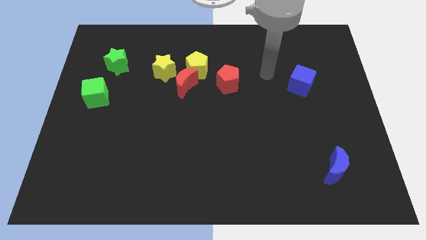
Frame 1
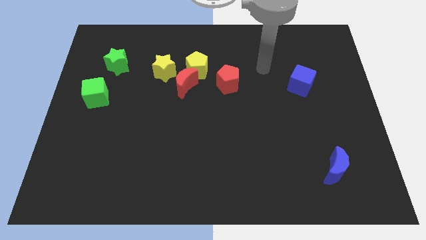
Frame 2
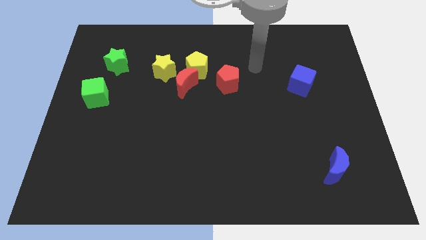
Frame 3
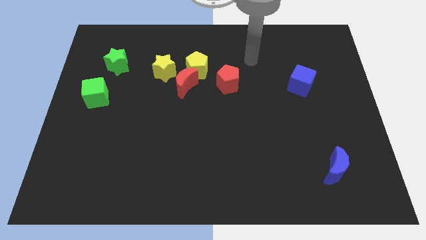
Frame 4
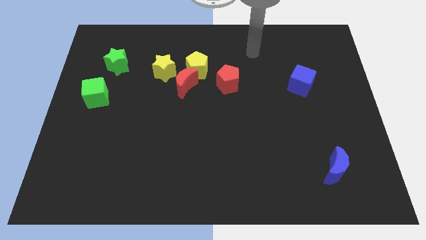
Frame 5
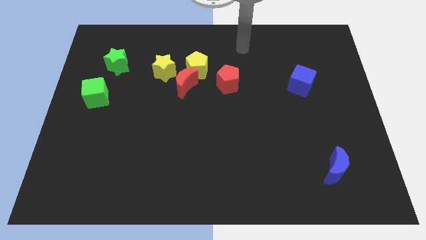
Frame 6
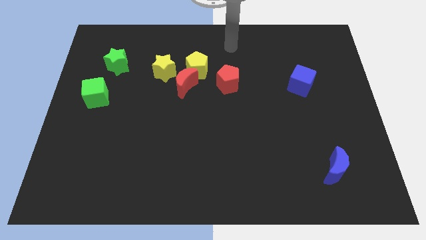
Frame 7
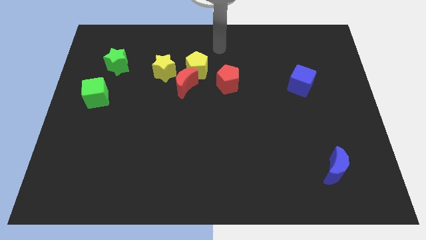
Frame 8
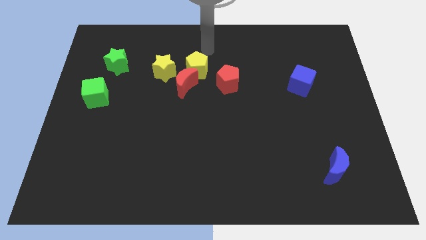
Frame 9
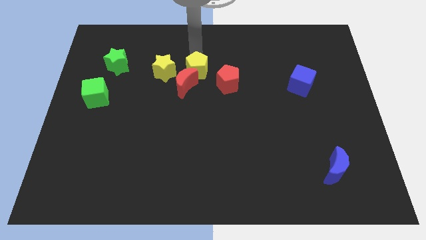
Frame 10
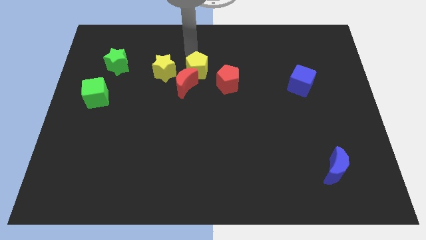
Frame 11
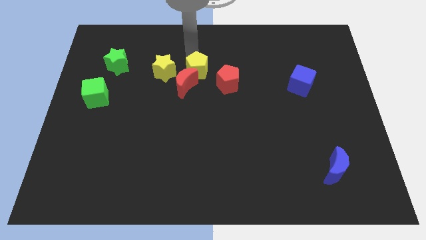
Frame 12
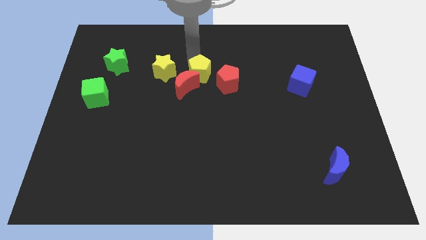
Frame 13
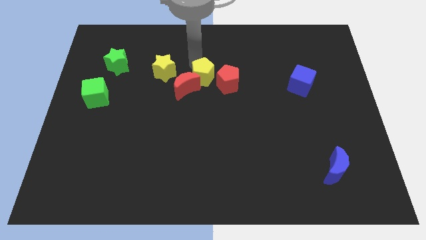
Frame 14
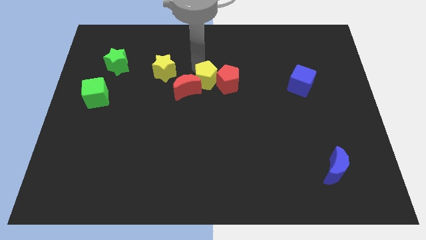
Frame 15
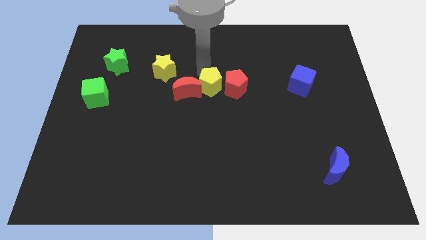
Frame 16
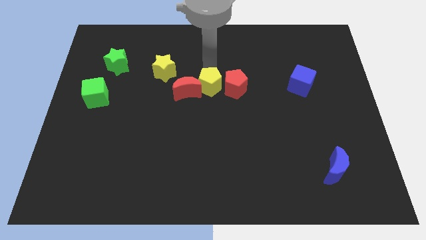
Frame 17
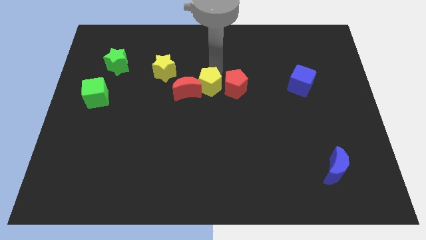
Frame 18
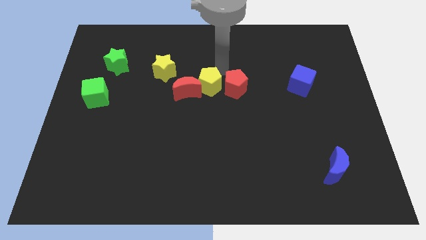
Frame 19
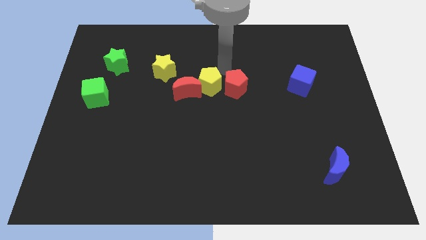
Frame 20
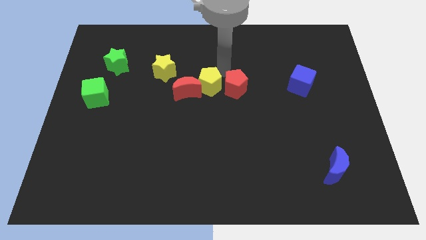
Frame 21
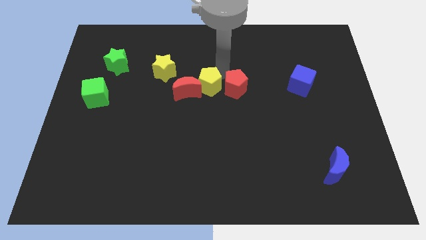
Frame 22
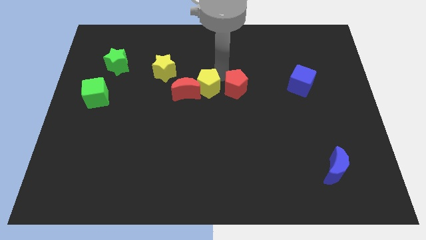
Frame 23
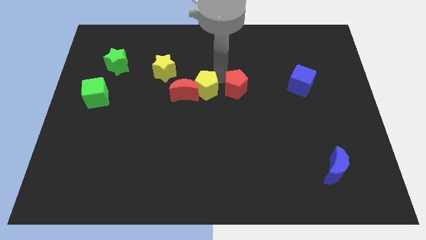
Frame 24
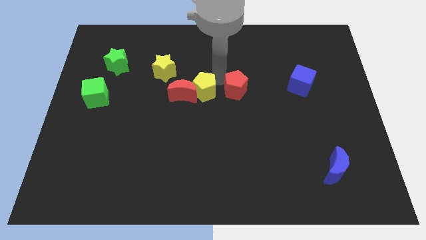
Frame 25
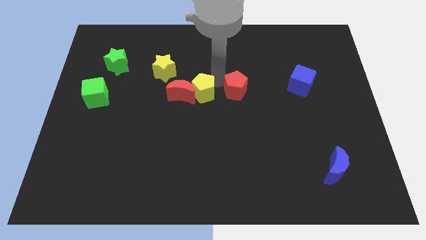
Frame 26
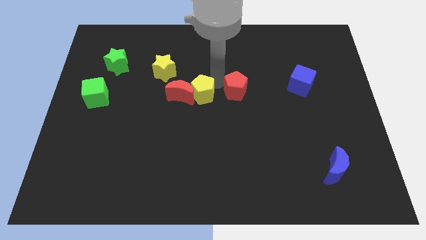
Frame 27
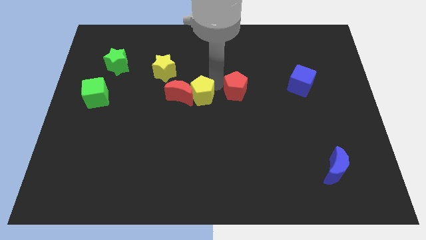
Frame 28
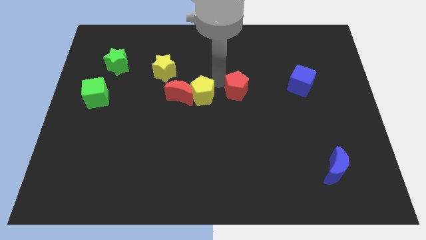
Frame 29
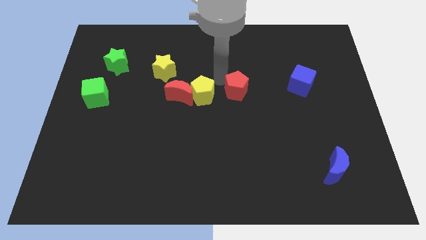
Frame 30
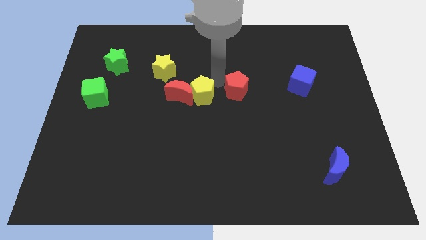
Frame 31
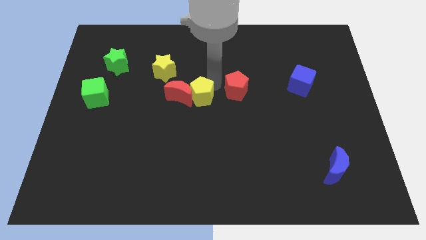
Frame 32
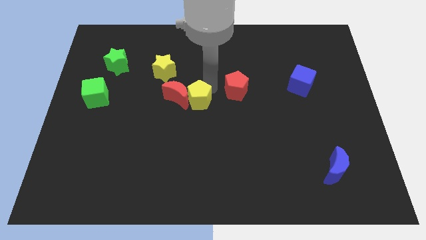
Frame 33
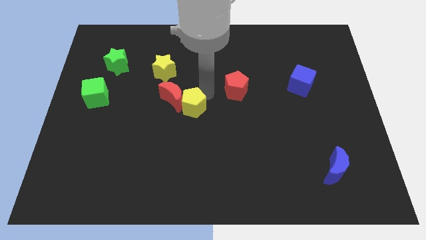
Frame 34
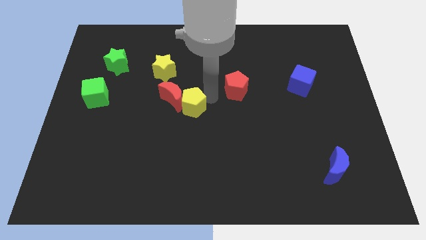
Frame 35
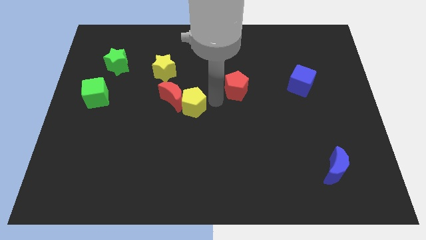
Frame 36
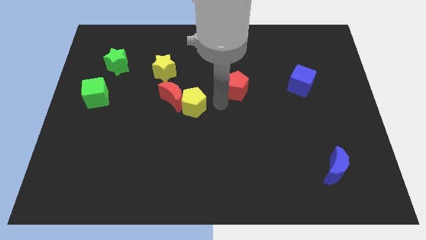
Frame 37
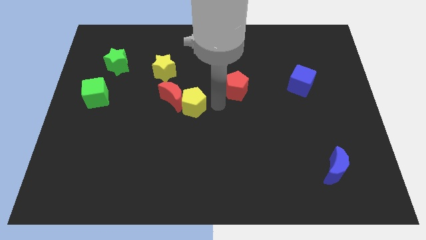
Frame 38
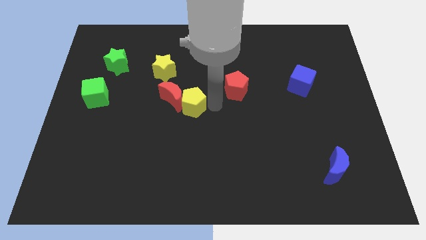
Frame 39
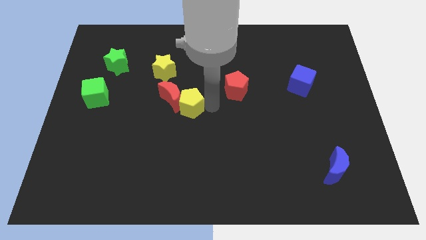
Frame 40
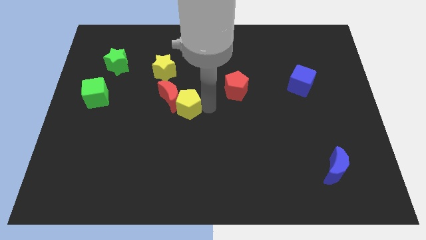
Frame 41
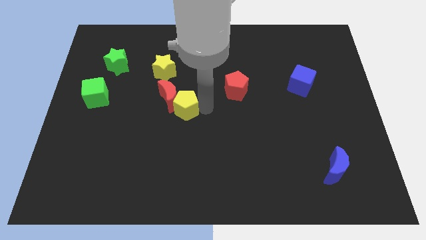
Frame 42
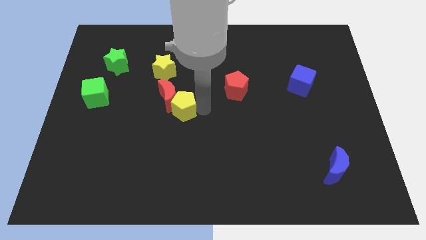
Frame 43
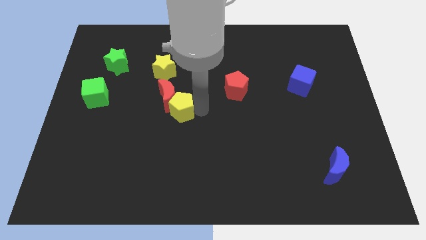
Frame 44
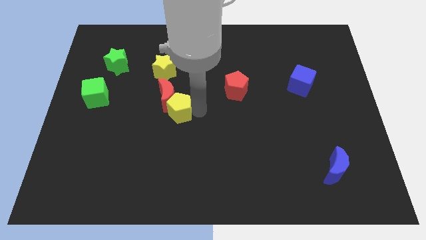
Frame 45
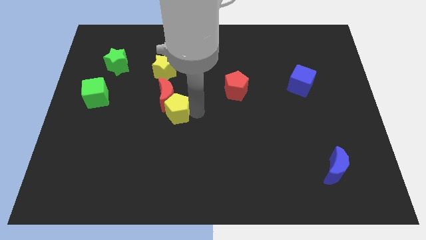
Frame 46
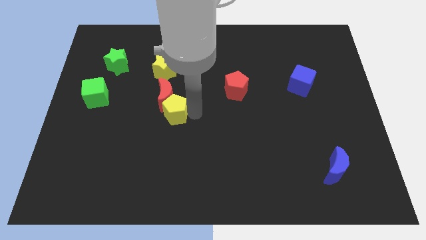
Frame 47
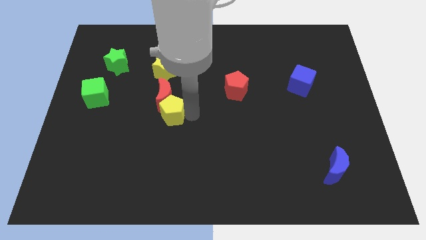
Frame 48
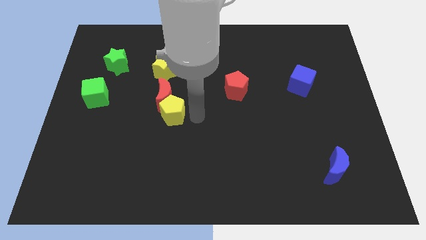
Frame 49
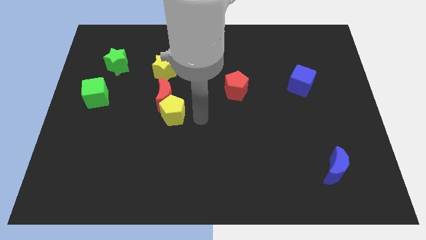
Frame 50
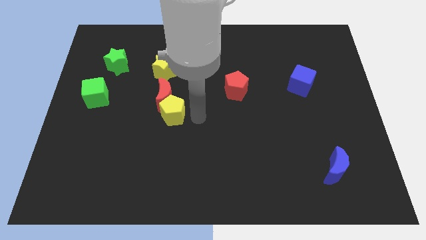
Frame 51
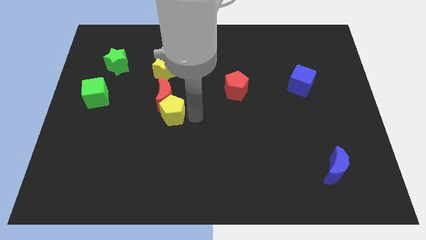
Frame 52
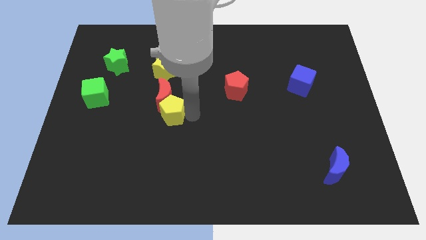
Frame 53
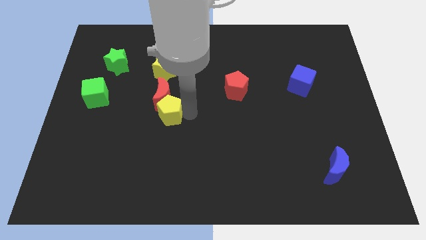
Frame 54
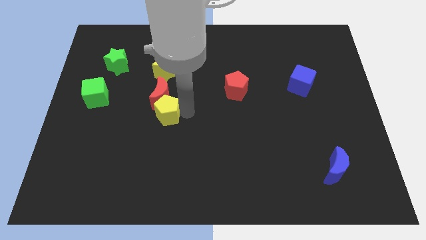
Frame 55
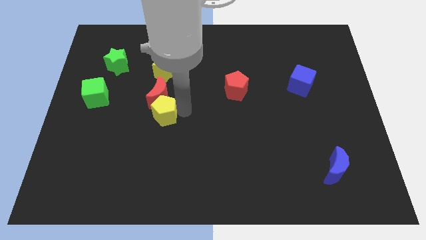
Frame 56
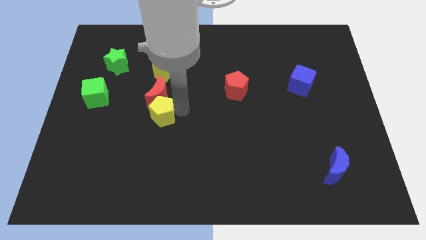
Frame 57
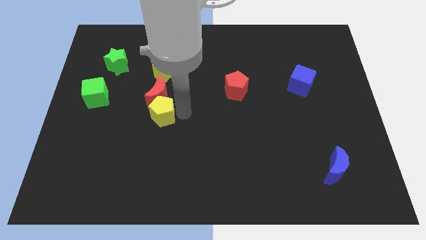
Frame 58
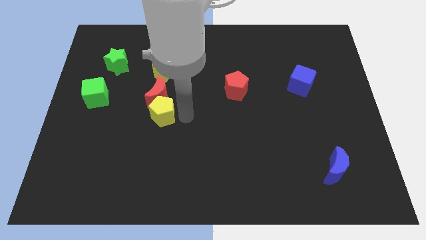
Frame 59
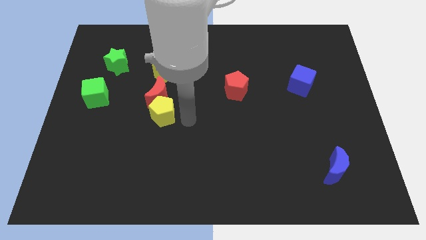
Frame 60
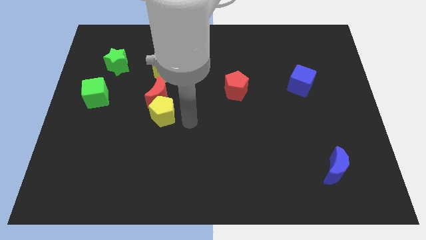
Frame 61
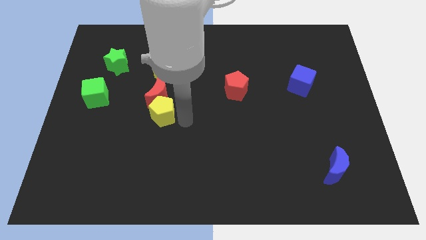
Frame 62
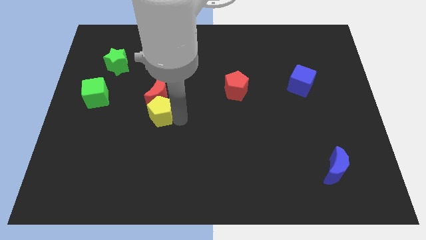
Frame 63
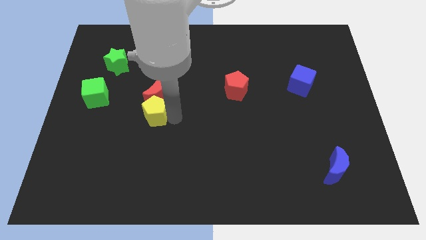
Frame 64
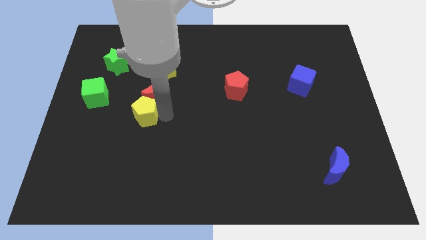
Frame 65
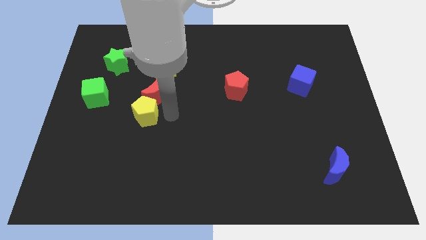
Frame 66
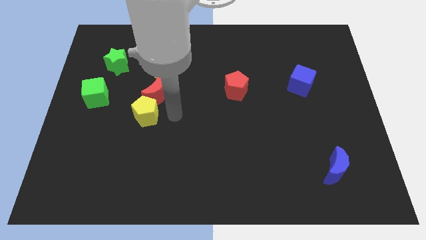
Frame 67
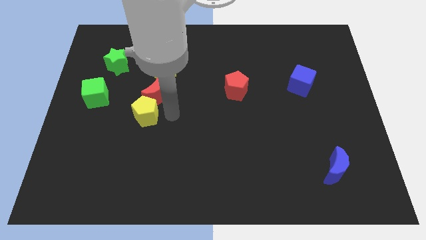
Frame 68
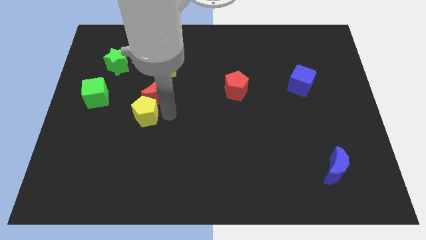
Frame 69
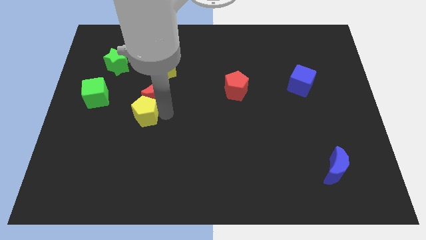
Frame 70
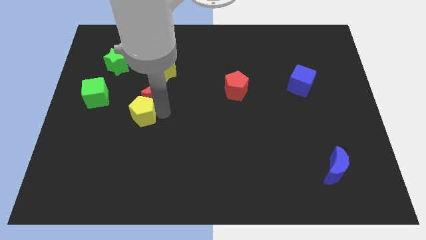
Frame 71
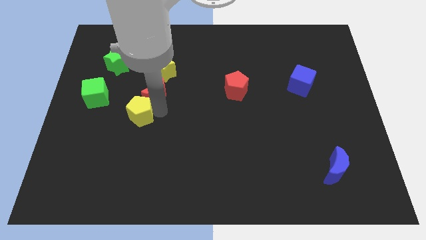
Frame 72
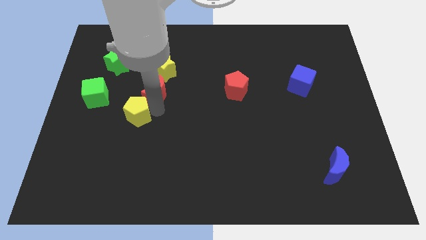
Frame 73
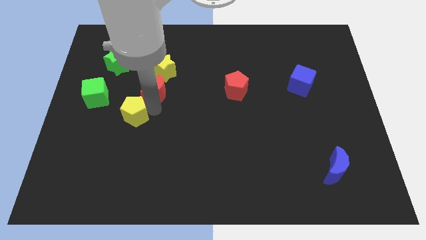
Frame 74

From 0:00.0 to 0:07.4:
put the yellow pentagon diagonally down and to the right of the green cube

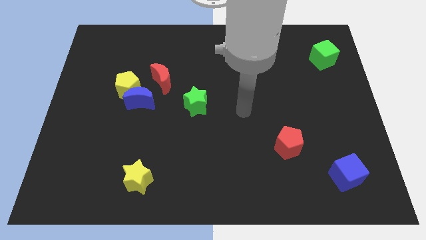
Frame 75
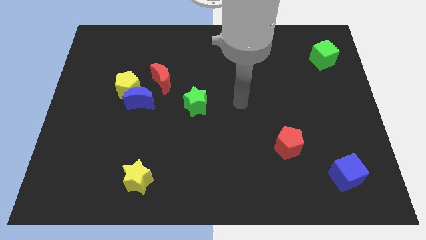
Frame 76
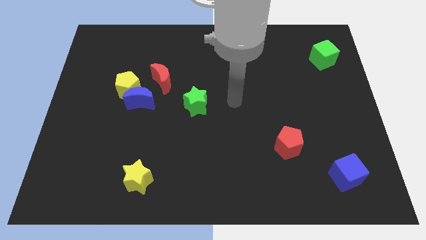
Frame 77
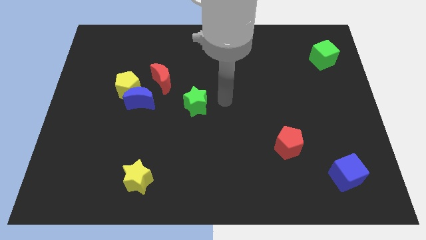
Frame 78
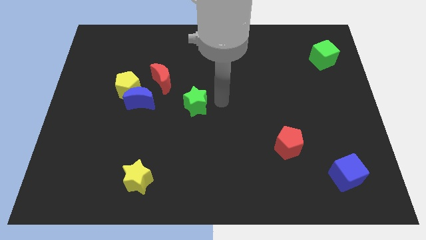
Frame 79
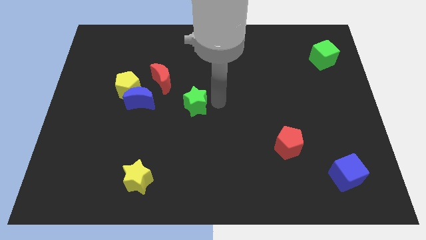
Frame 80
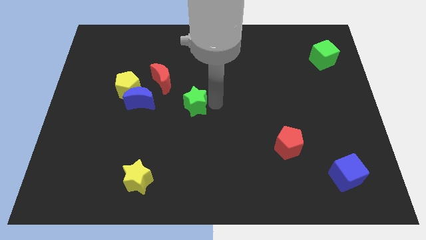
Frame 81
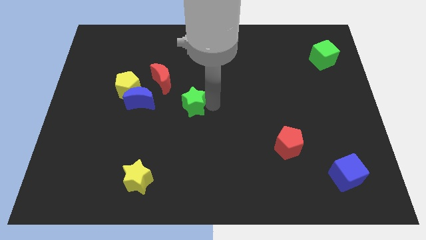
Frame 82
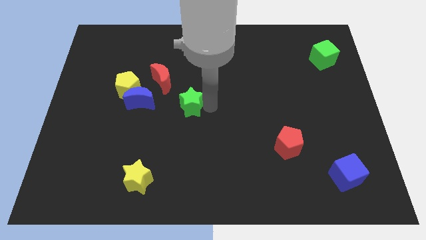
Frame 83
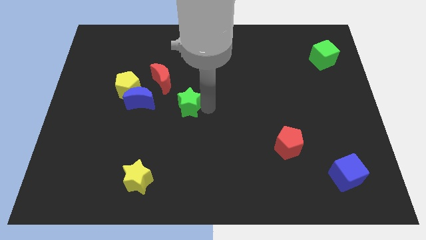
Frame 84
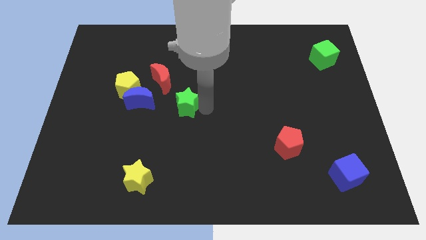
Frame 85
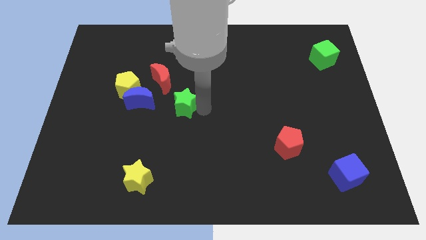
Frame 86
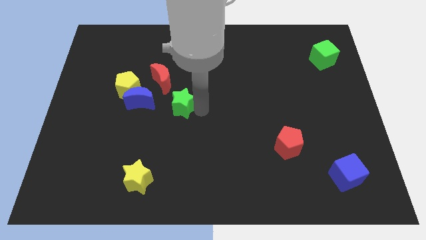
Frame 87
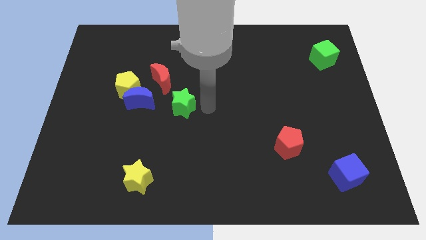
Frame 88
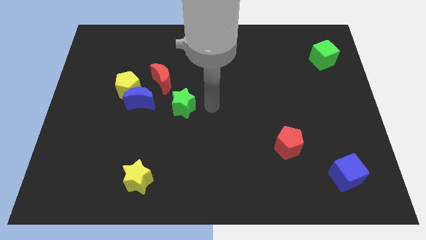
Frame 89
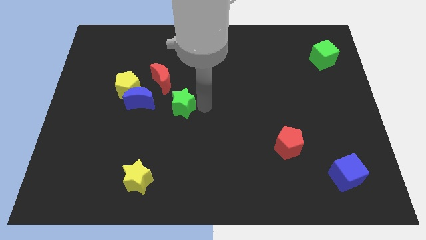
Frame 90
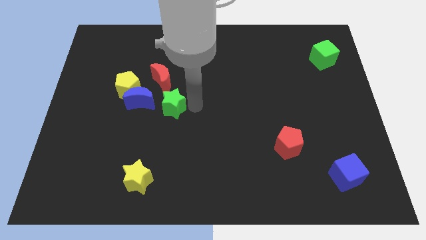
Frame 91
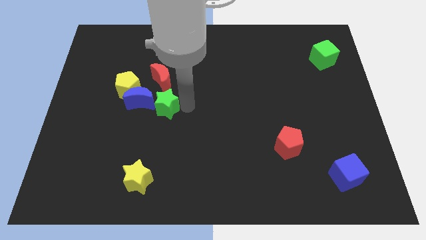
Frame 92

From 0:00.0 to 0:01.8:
move the green star diagonally down and to the right of the yellow pentagon
